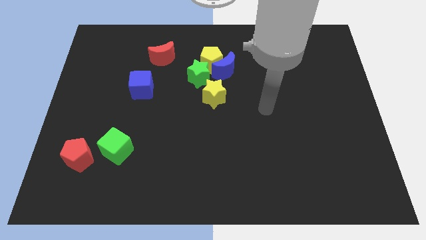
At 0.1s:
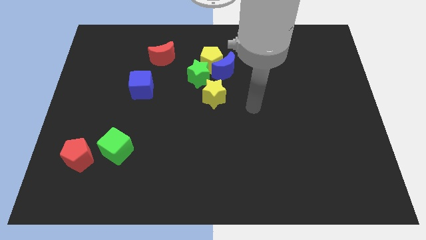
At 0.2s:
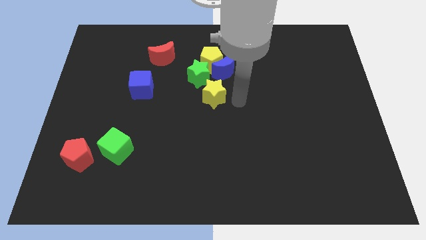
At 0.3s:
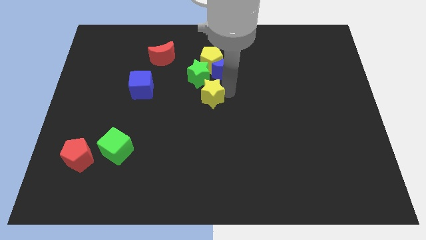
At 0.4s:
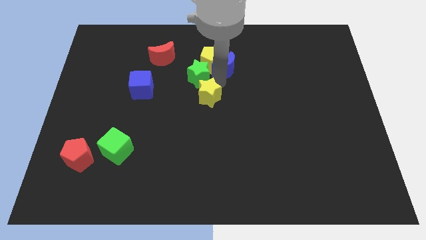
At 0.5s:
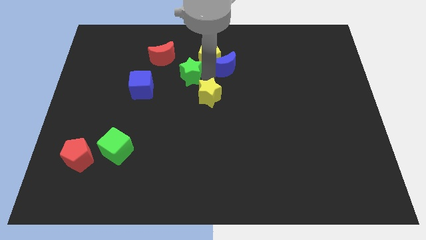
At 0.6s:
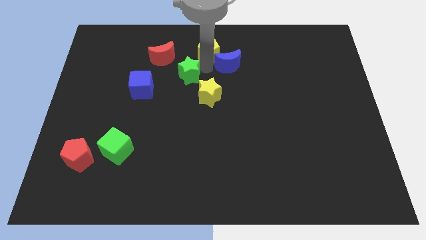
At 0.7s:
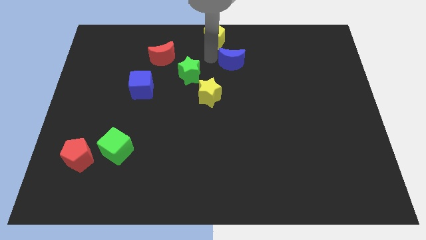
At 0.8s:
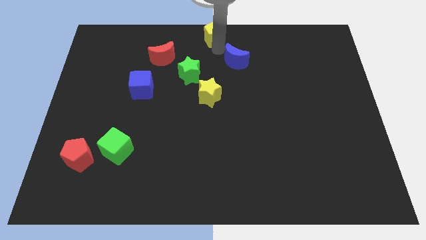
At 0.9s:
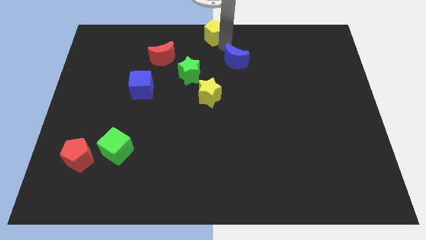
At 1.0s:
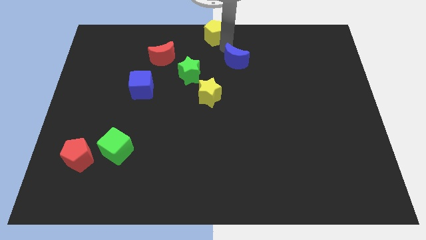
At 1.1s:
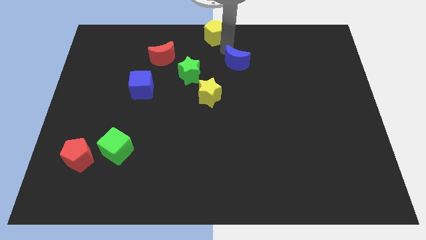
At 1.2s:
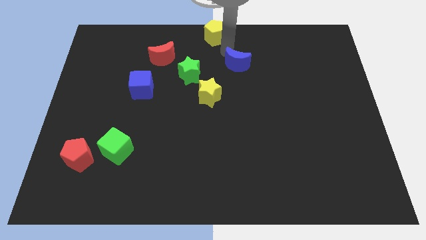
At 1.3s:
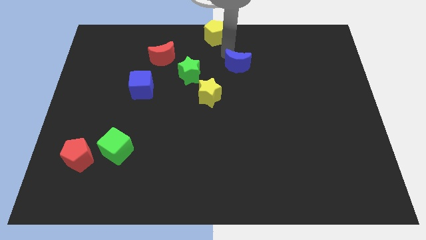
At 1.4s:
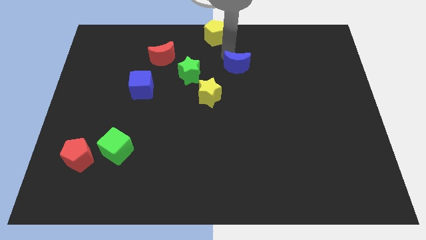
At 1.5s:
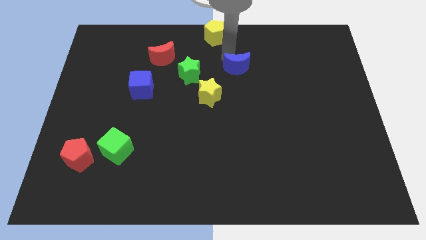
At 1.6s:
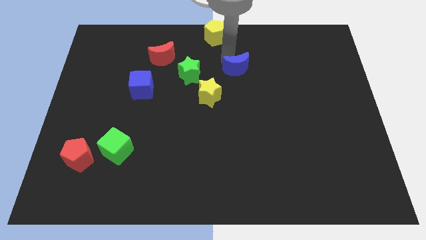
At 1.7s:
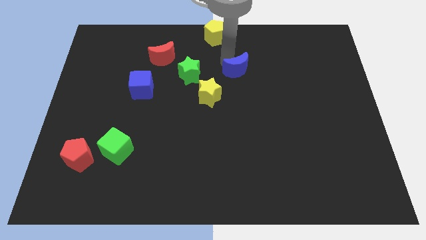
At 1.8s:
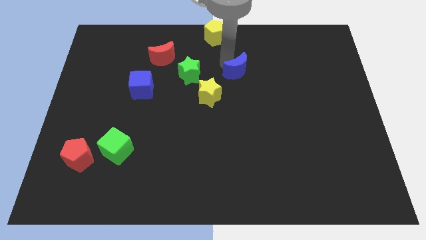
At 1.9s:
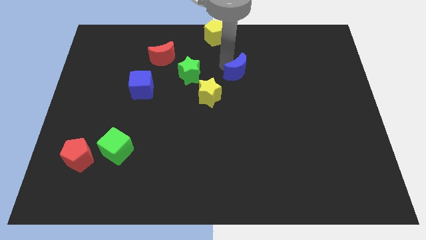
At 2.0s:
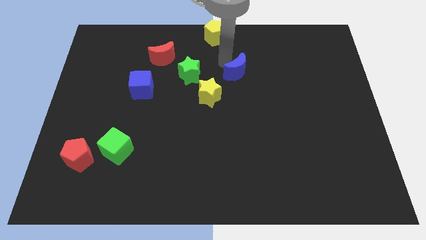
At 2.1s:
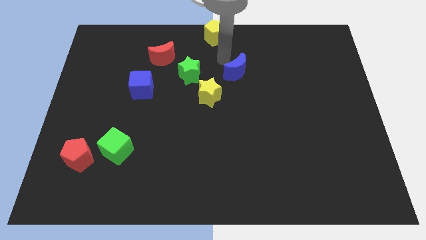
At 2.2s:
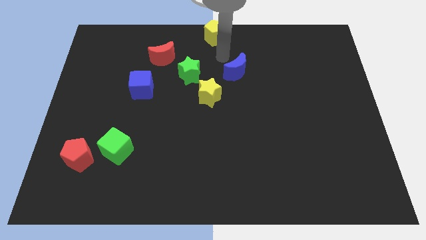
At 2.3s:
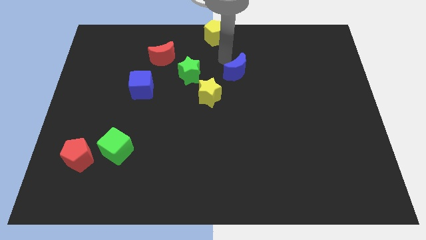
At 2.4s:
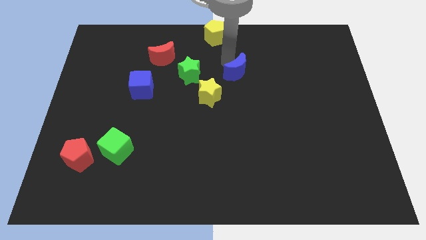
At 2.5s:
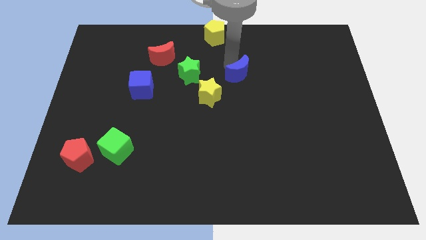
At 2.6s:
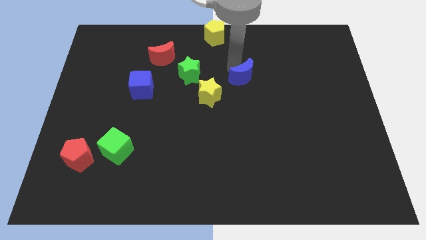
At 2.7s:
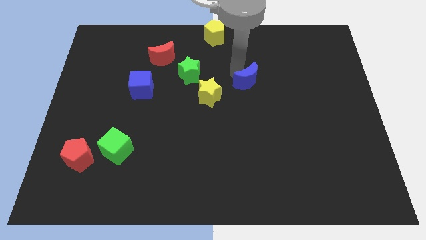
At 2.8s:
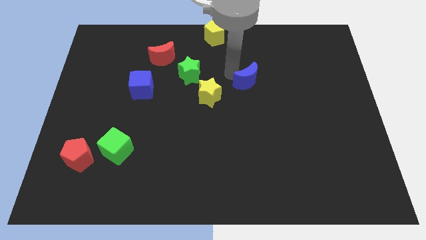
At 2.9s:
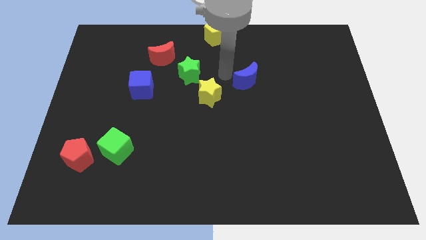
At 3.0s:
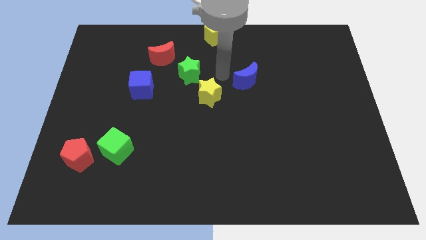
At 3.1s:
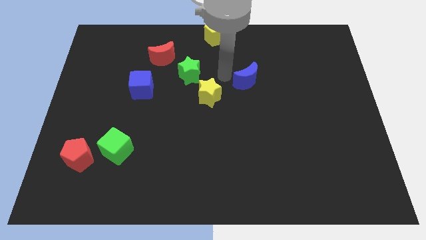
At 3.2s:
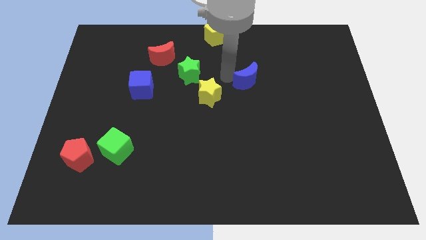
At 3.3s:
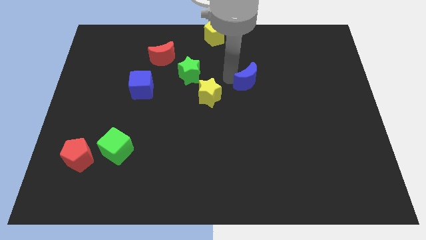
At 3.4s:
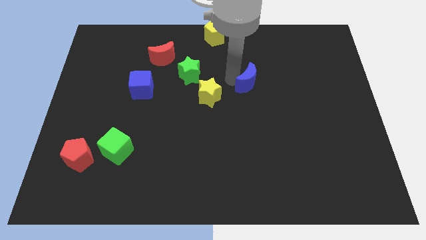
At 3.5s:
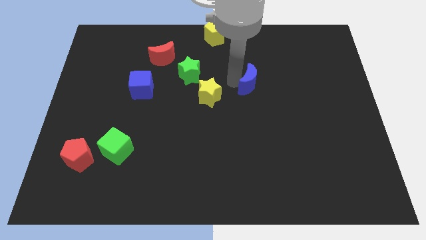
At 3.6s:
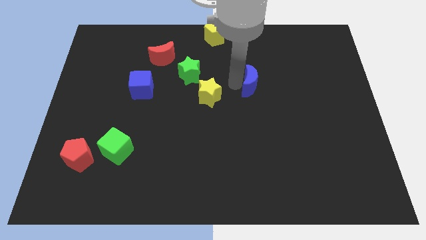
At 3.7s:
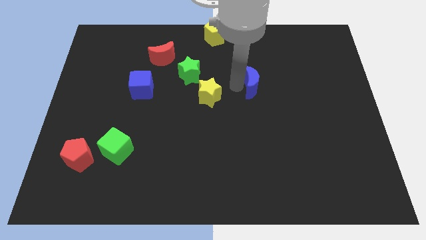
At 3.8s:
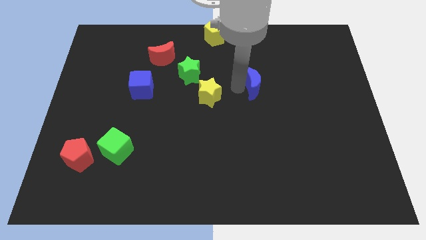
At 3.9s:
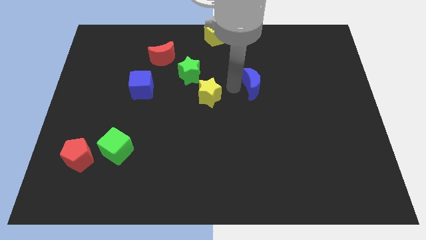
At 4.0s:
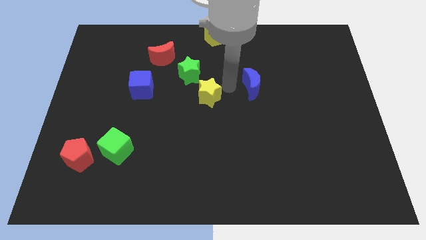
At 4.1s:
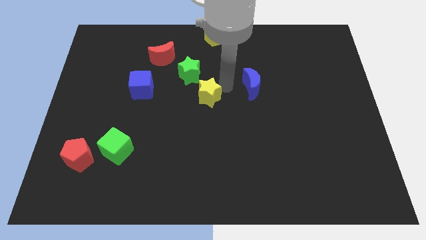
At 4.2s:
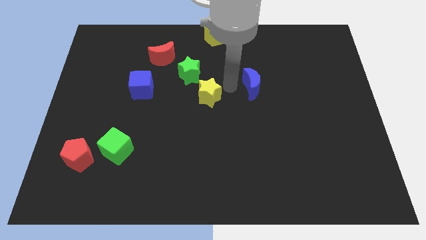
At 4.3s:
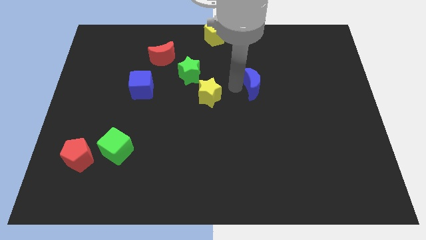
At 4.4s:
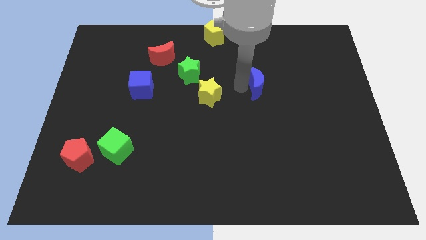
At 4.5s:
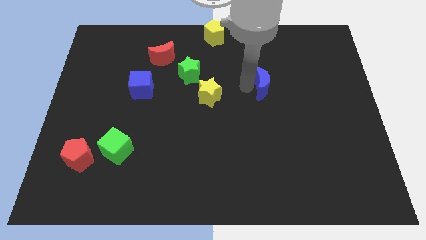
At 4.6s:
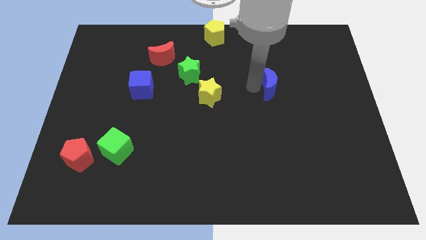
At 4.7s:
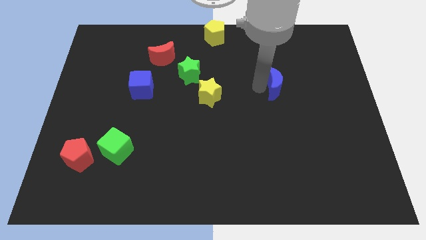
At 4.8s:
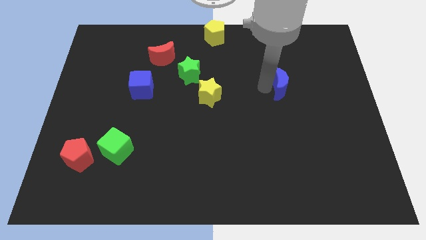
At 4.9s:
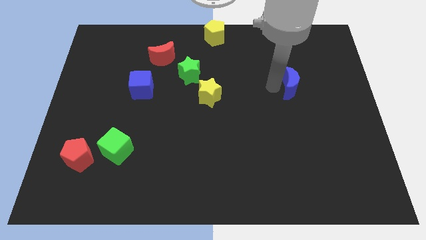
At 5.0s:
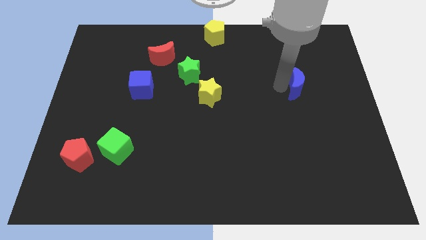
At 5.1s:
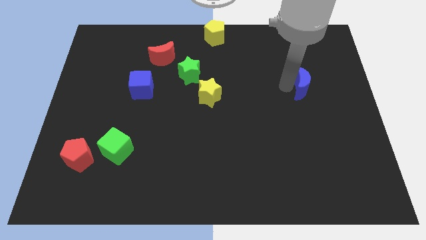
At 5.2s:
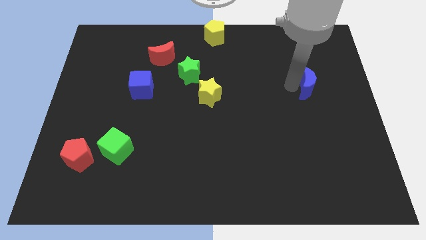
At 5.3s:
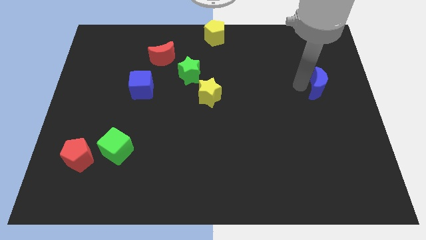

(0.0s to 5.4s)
move the blue moon to the center right

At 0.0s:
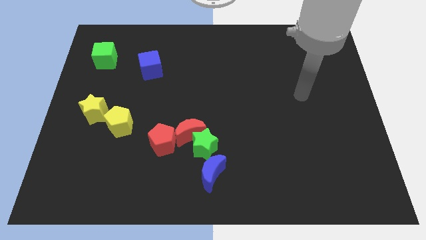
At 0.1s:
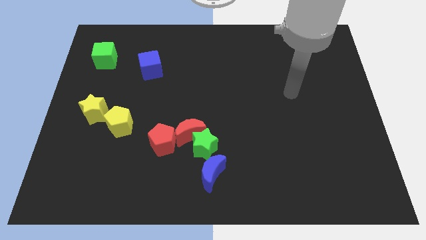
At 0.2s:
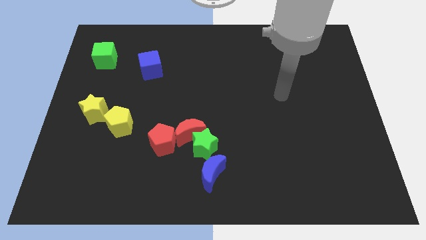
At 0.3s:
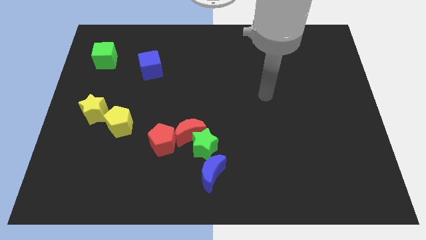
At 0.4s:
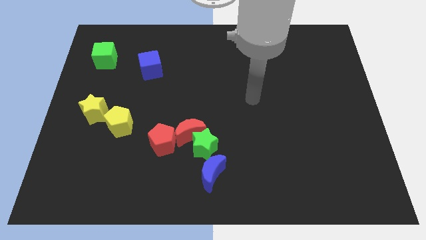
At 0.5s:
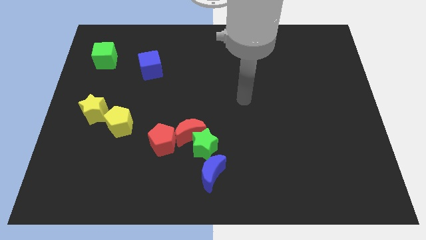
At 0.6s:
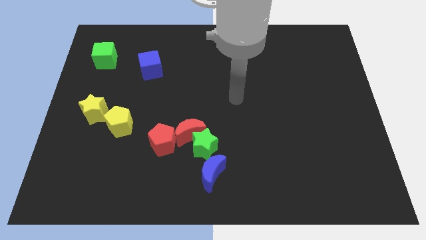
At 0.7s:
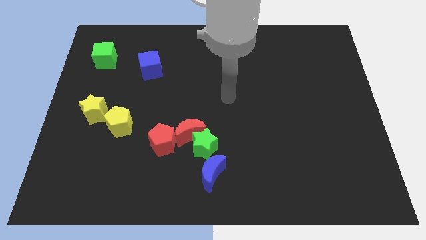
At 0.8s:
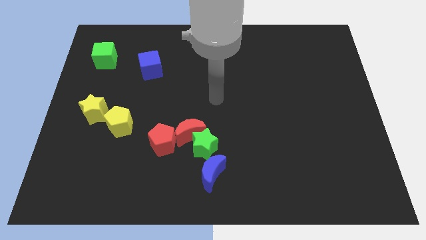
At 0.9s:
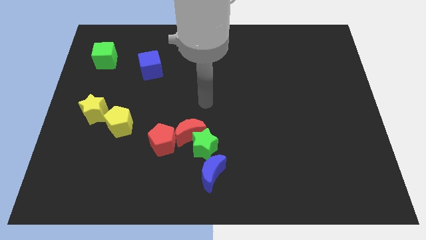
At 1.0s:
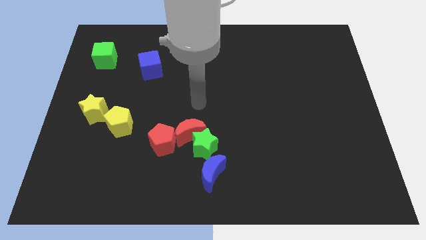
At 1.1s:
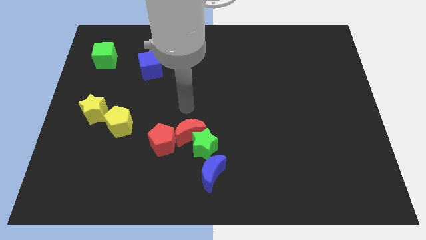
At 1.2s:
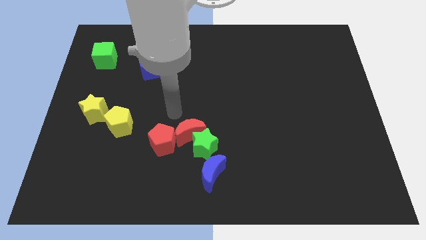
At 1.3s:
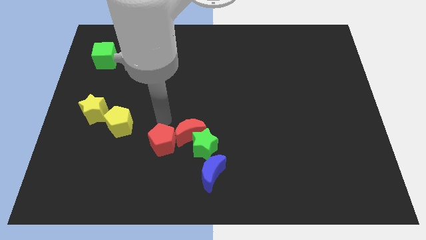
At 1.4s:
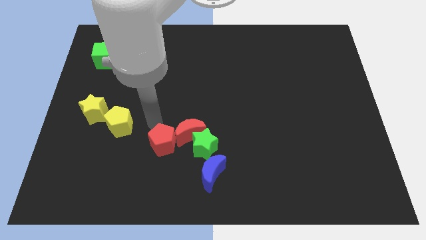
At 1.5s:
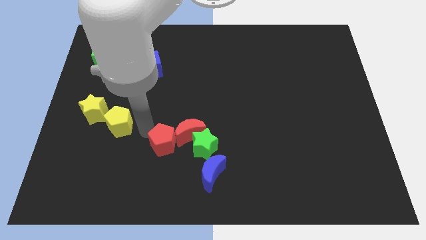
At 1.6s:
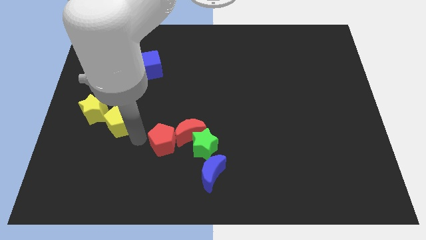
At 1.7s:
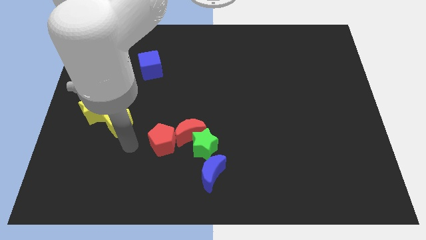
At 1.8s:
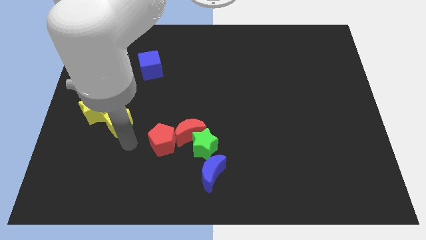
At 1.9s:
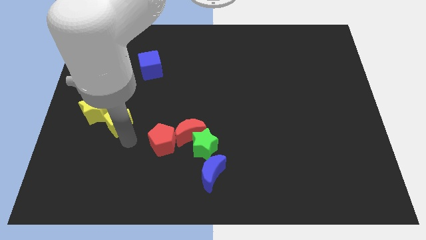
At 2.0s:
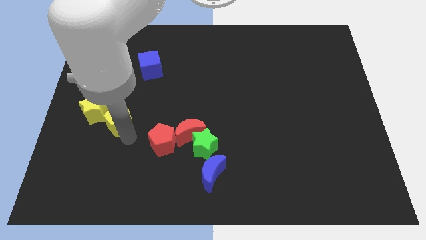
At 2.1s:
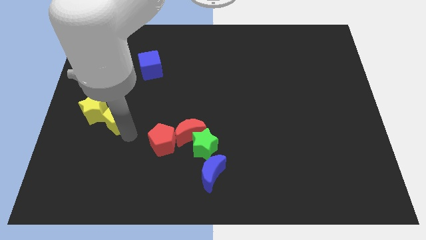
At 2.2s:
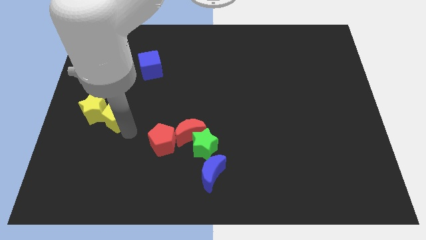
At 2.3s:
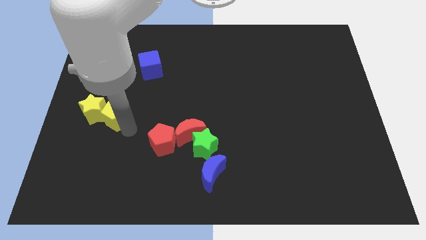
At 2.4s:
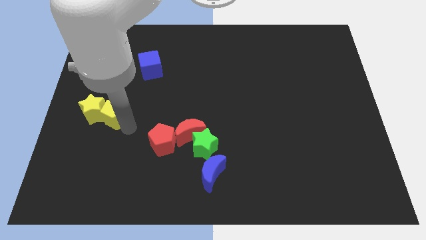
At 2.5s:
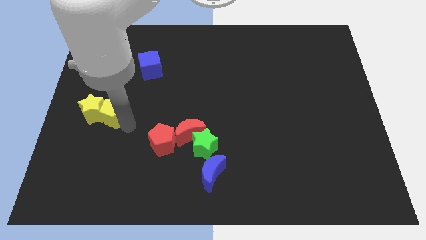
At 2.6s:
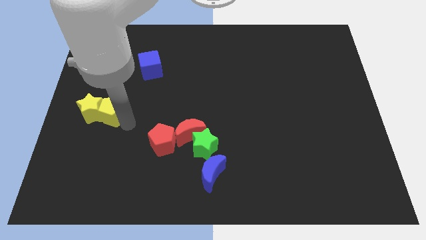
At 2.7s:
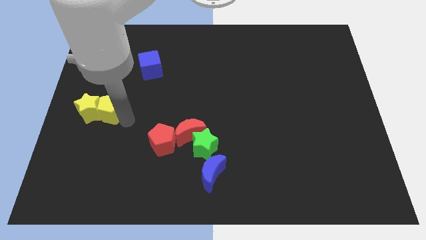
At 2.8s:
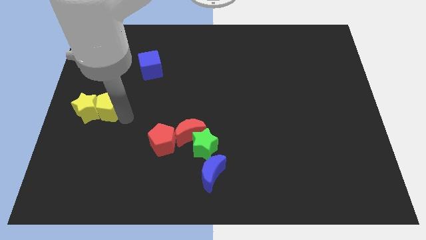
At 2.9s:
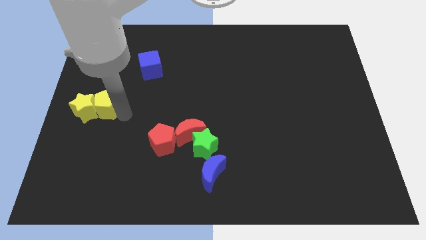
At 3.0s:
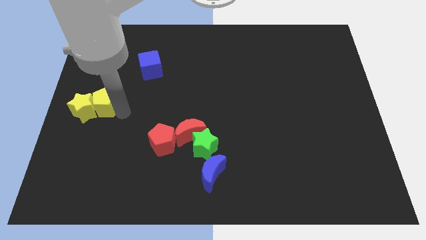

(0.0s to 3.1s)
slide the yellow pentagon to the left side
